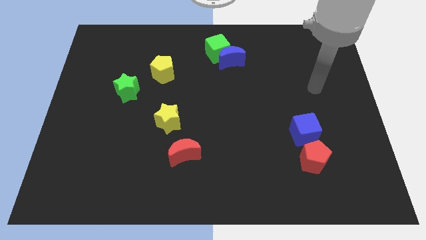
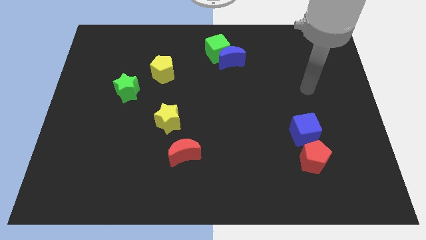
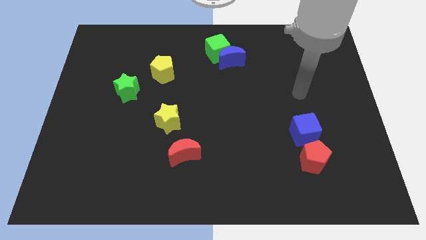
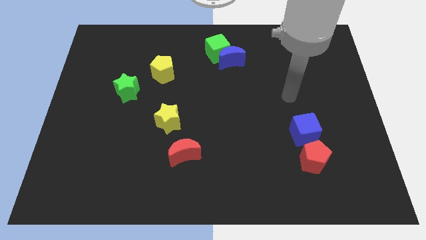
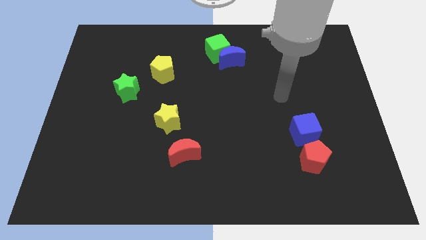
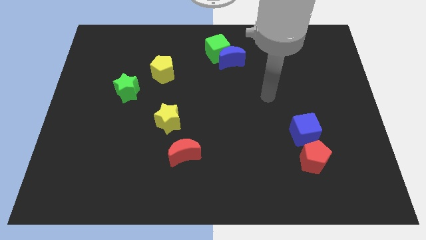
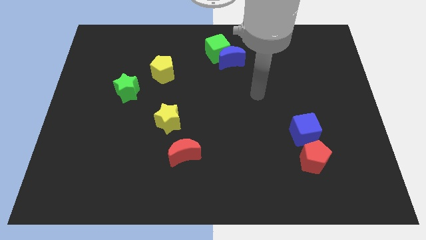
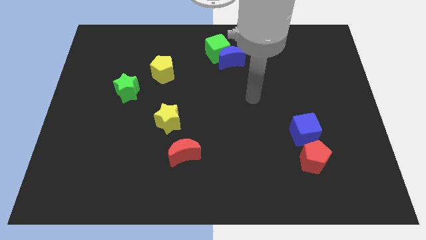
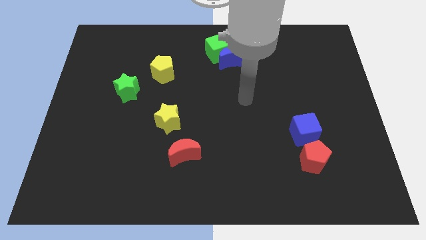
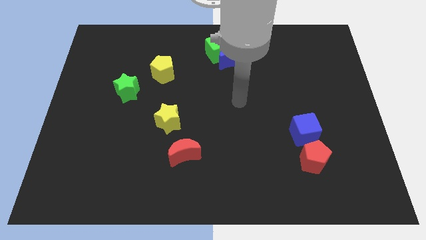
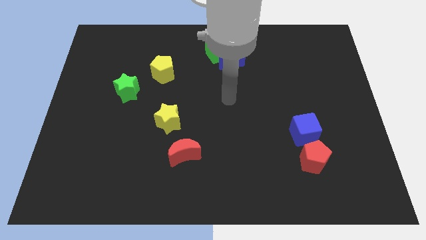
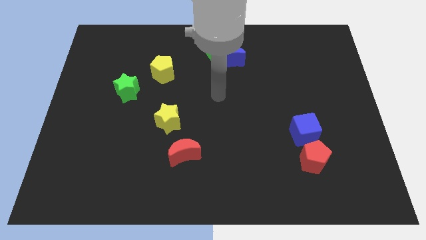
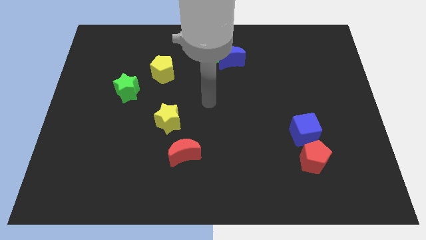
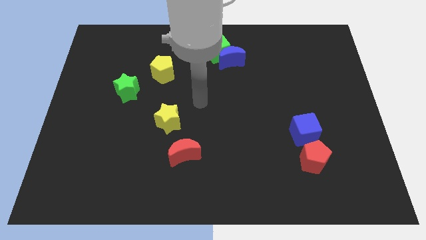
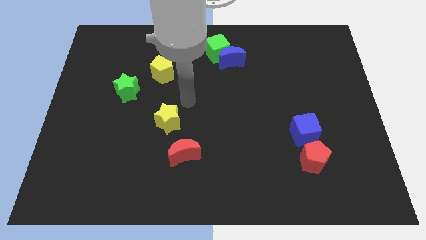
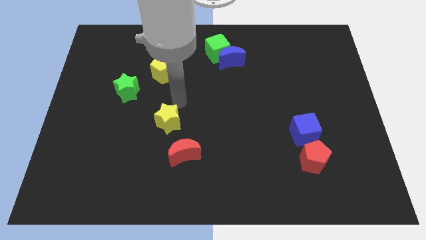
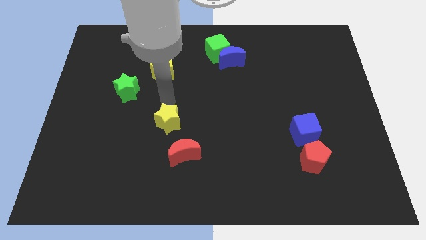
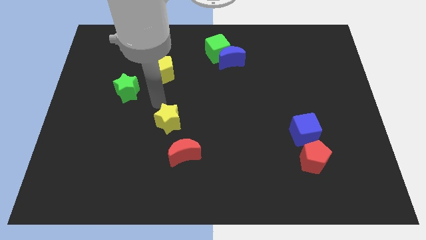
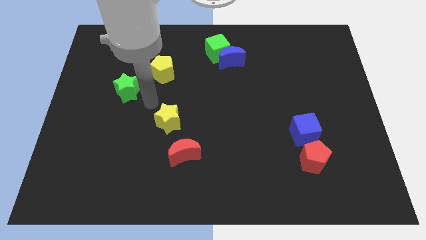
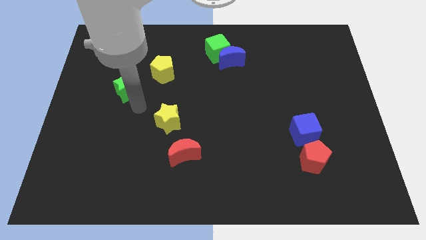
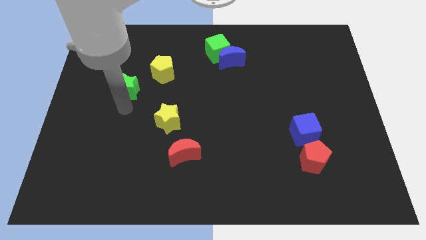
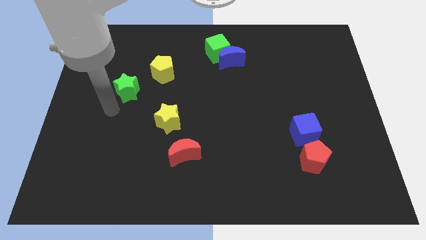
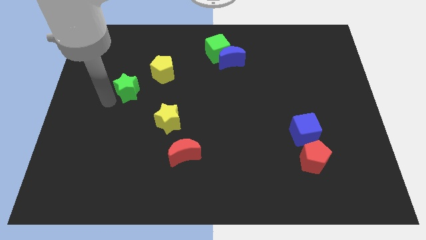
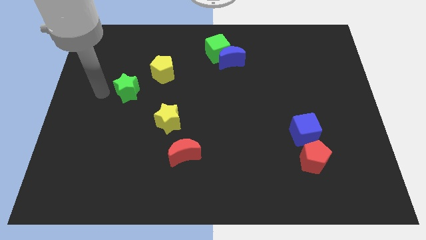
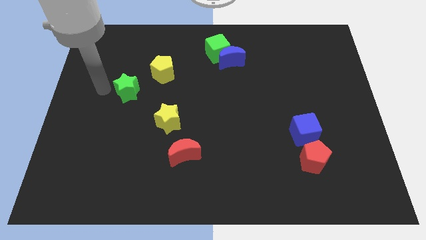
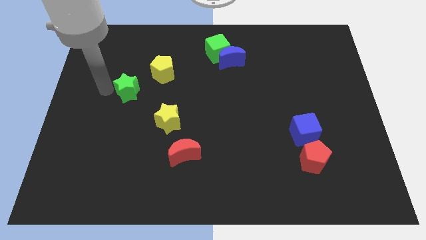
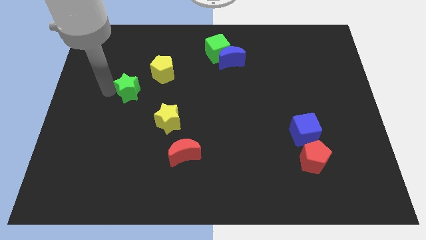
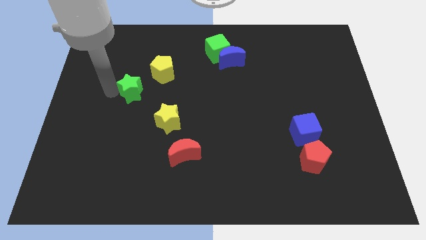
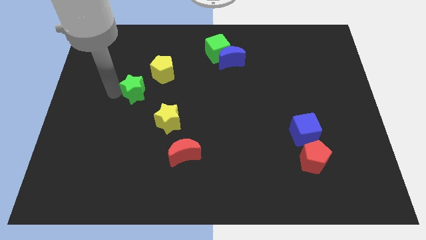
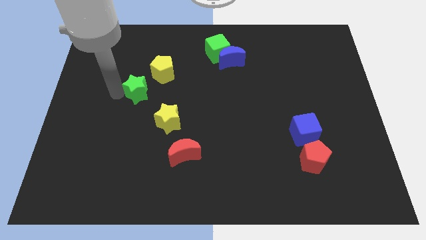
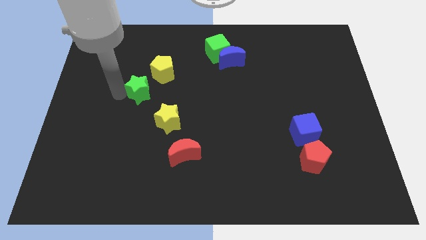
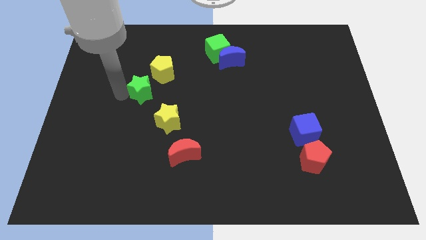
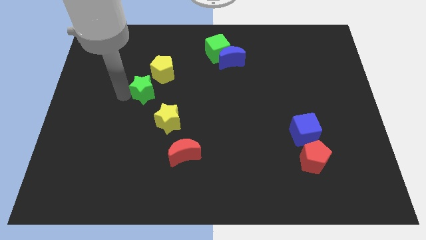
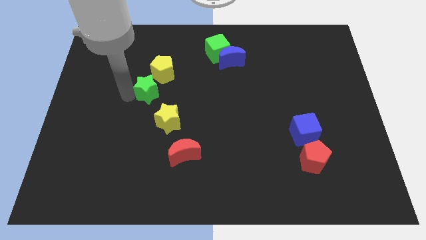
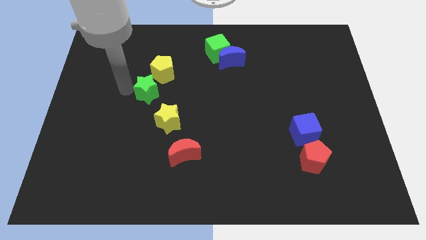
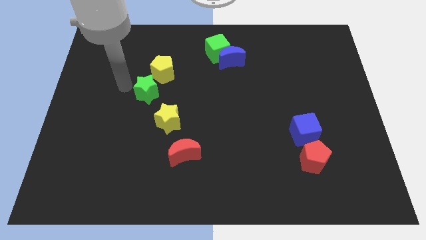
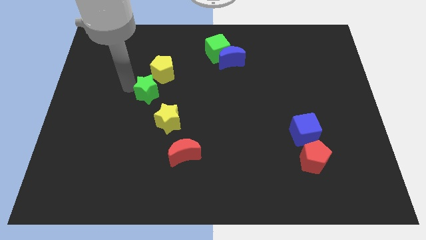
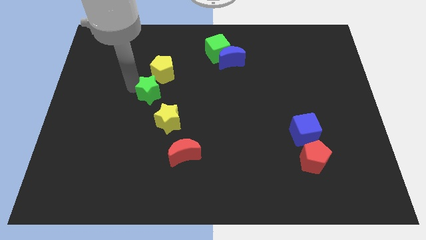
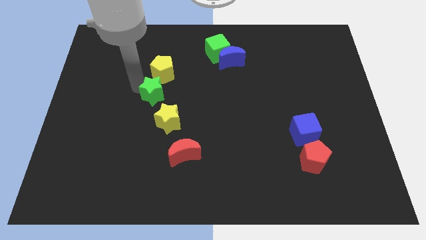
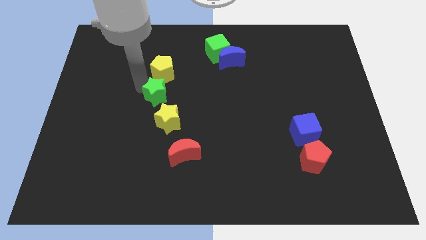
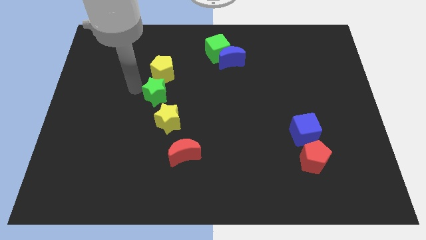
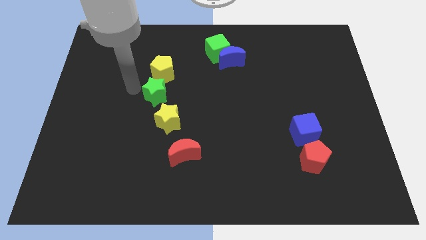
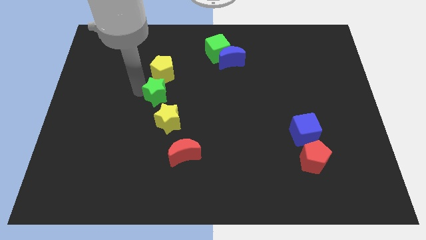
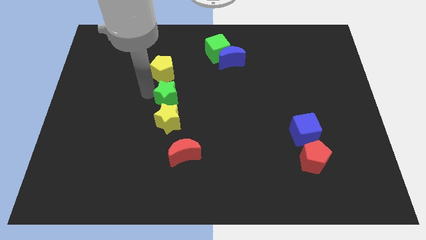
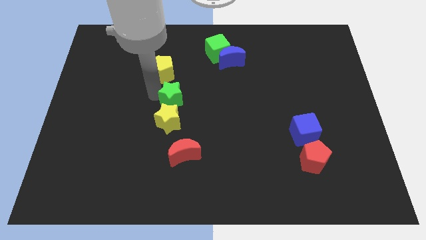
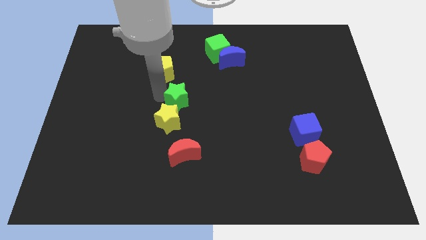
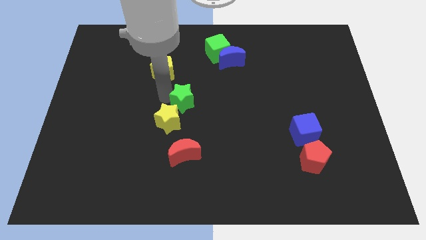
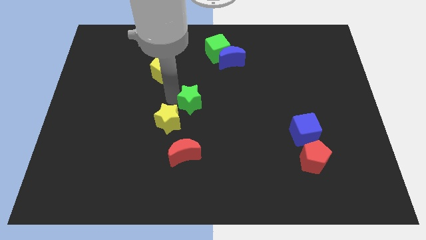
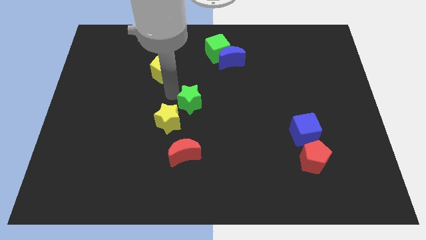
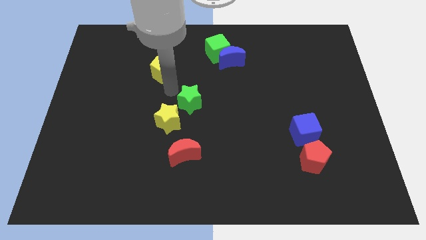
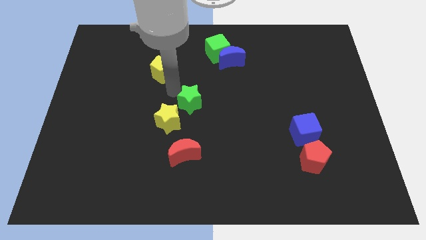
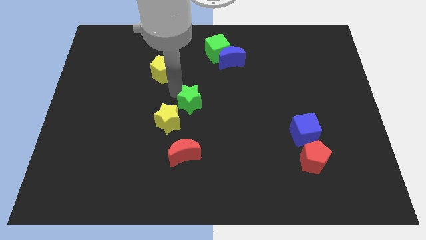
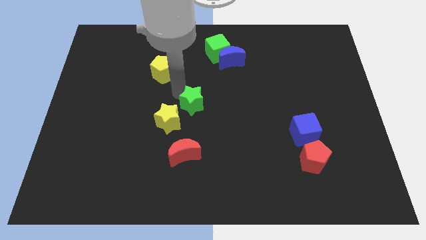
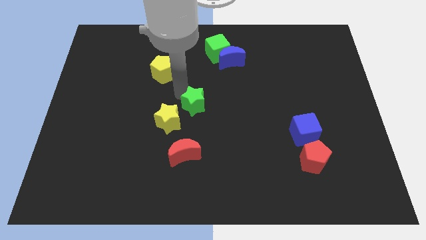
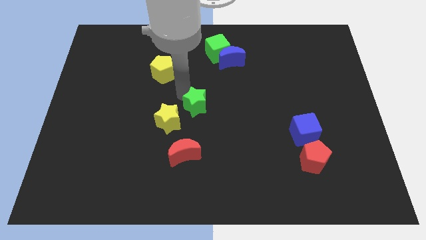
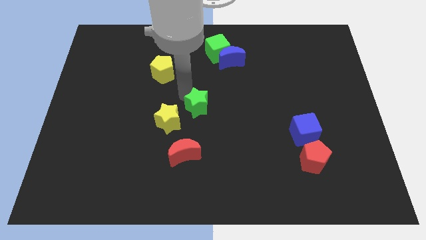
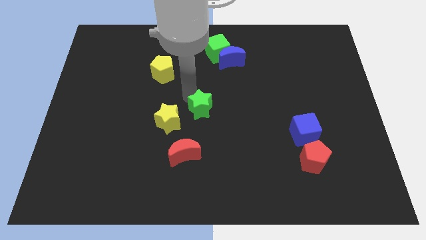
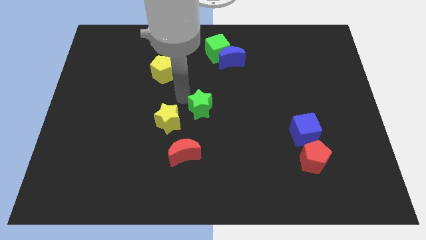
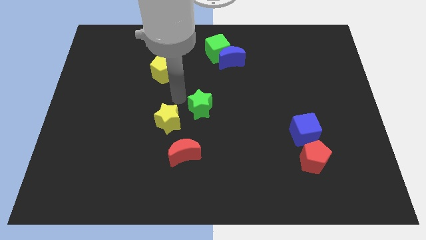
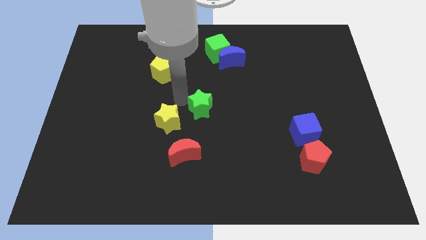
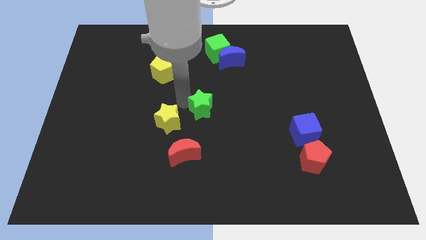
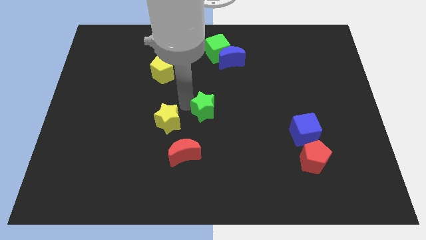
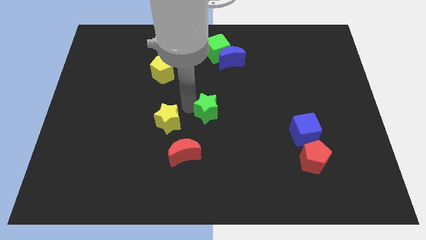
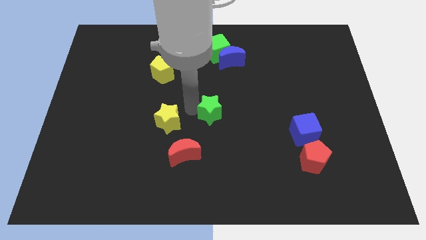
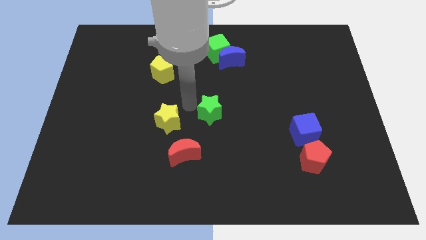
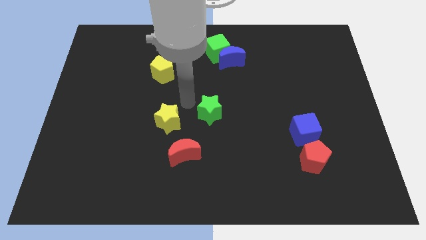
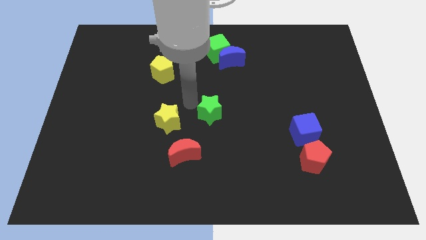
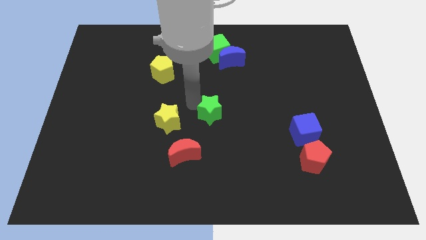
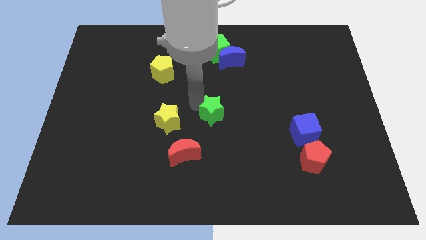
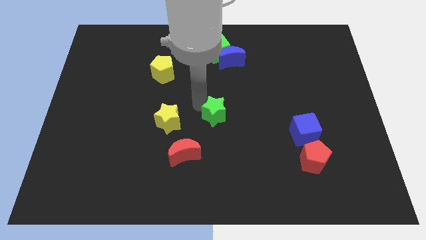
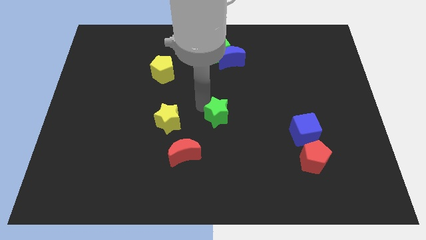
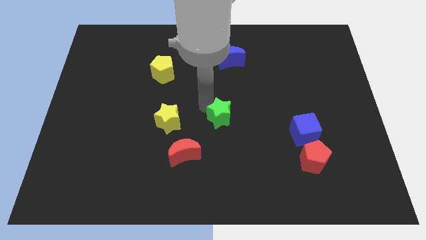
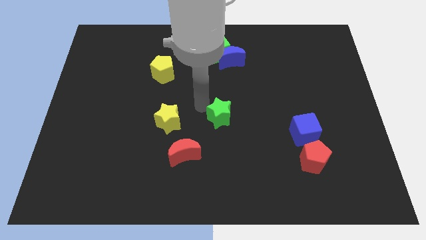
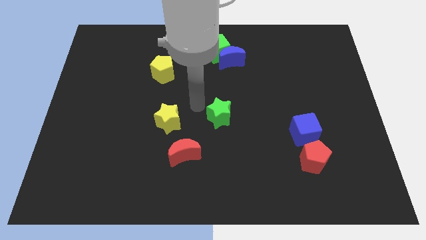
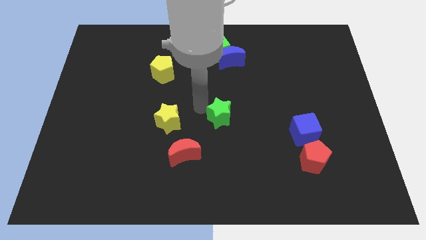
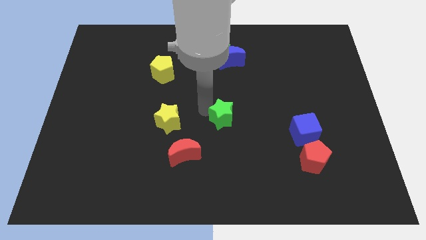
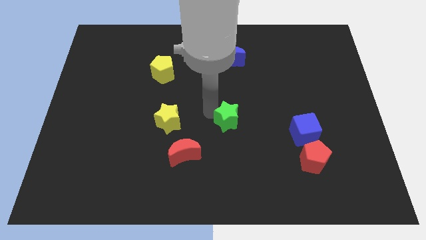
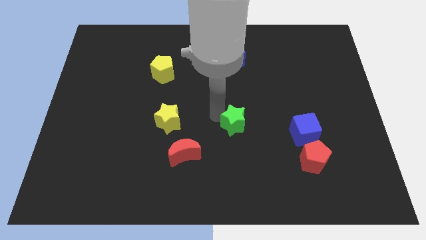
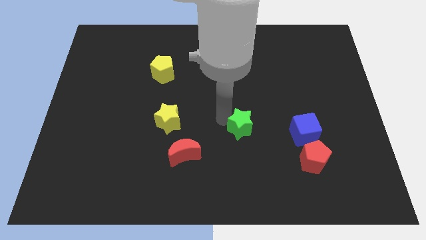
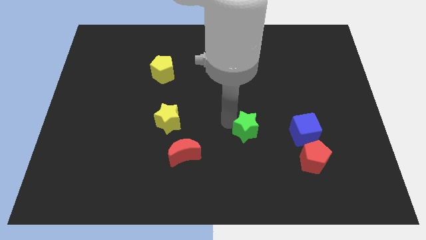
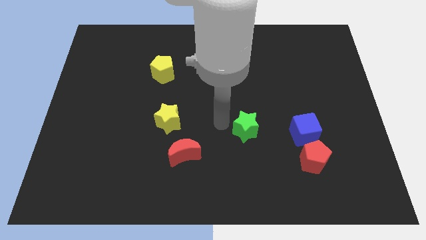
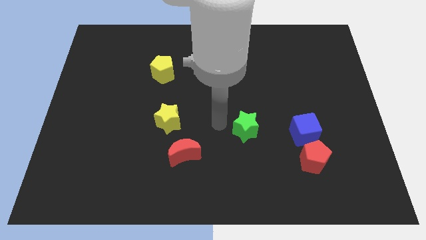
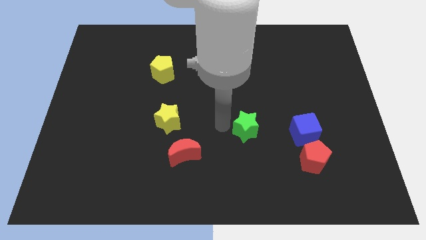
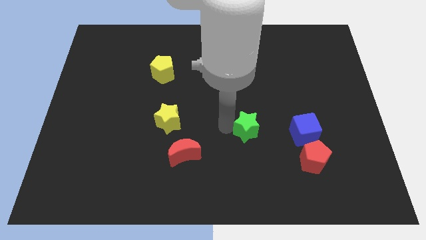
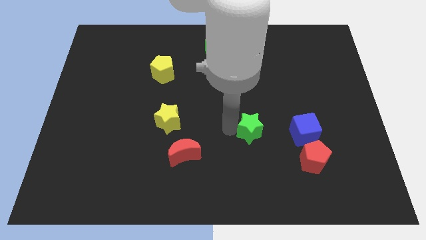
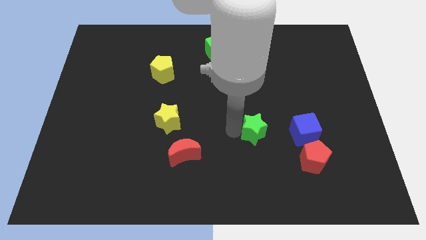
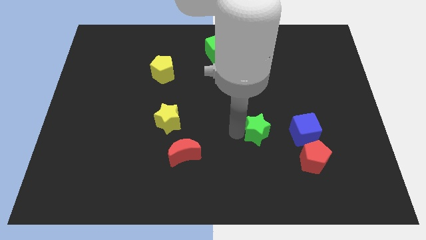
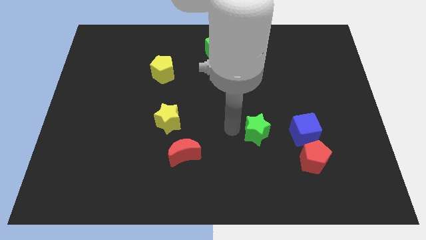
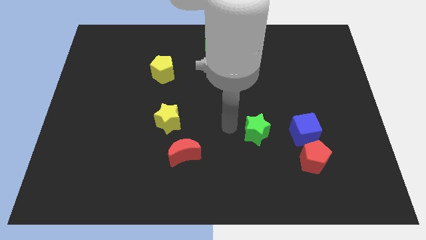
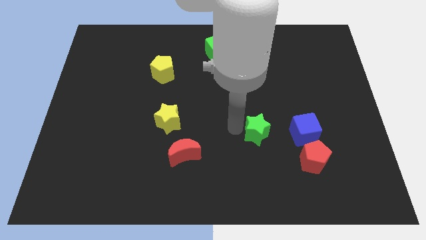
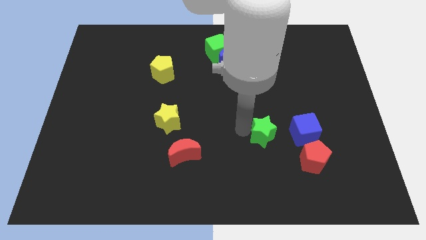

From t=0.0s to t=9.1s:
move the green star diagonally up and to the left of the red pentagon
